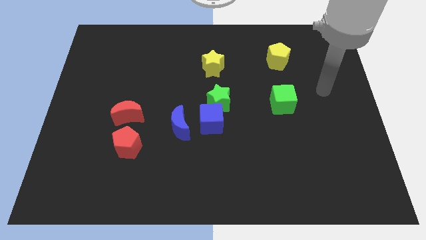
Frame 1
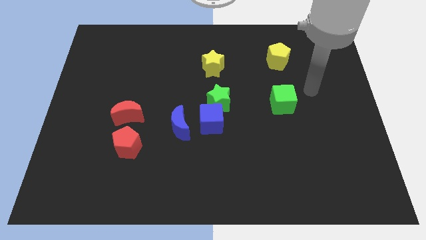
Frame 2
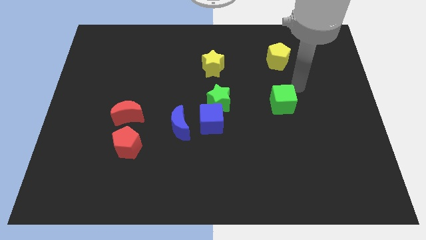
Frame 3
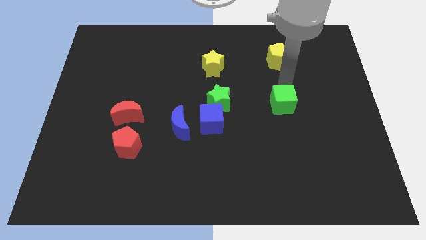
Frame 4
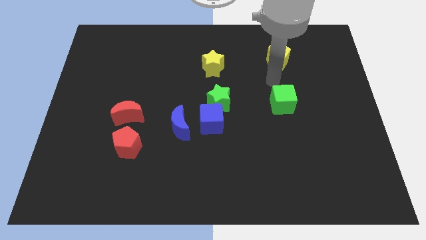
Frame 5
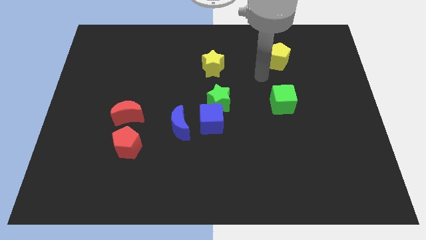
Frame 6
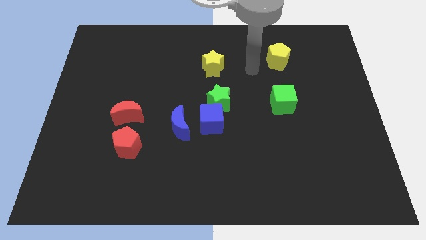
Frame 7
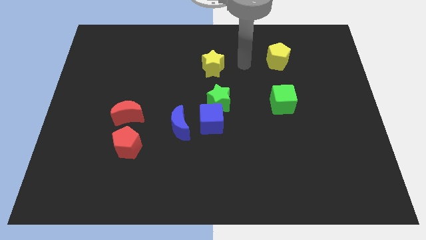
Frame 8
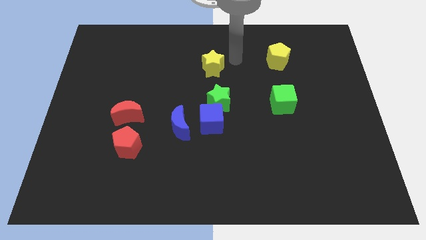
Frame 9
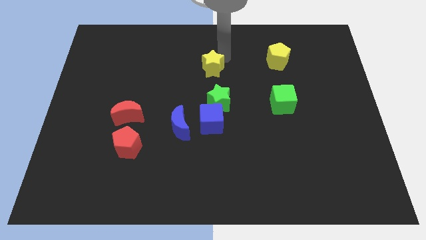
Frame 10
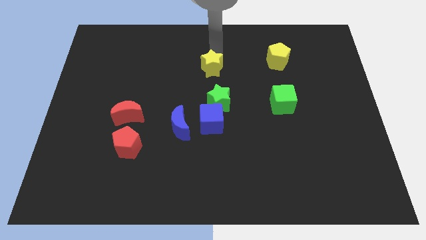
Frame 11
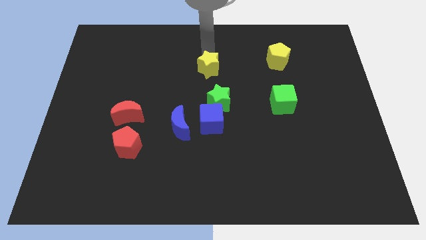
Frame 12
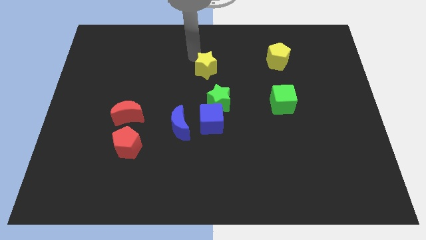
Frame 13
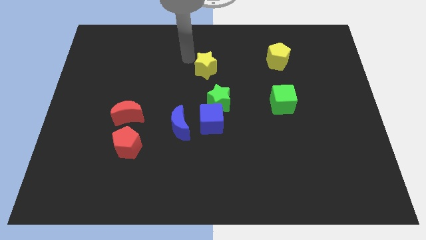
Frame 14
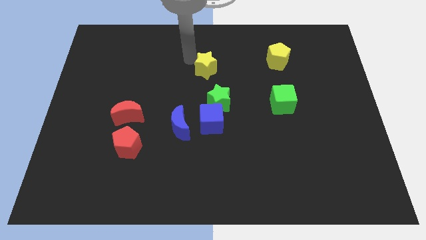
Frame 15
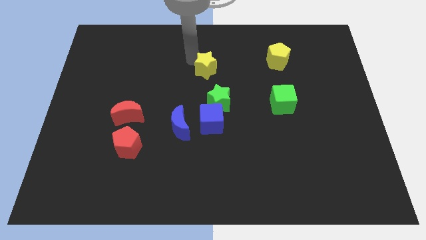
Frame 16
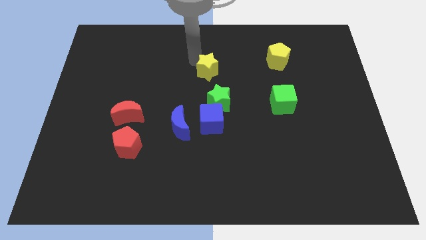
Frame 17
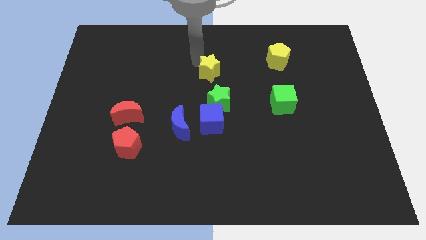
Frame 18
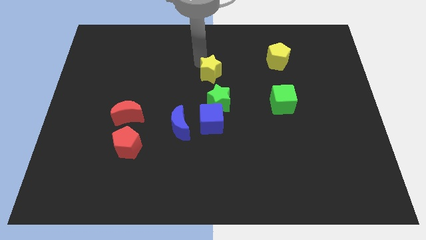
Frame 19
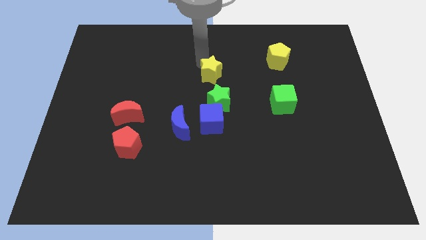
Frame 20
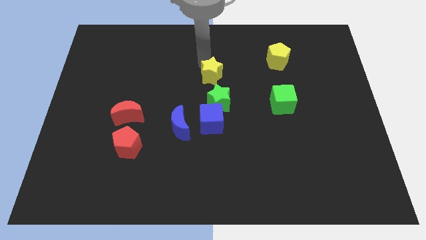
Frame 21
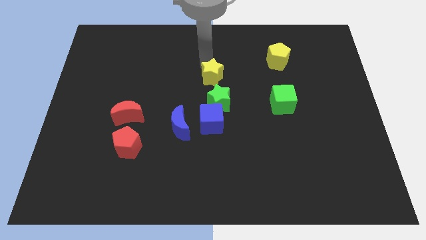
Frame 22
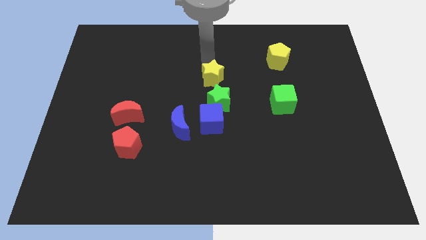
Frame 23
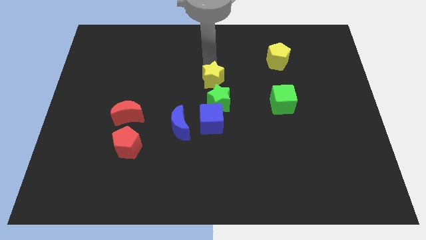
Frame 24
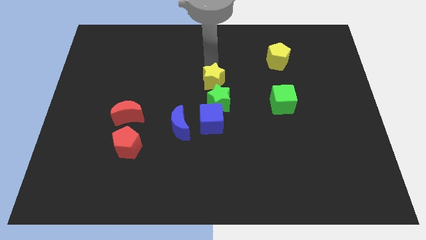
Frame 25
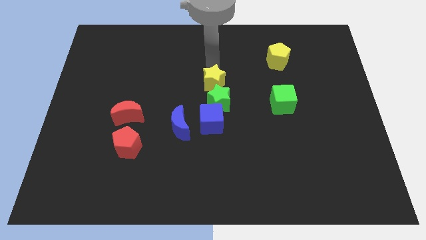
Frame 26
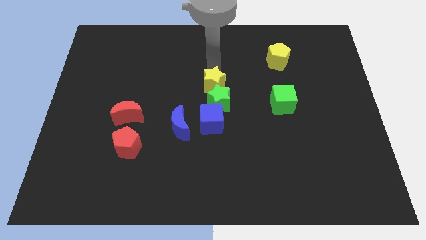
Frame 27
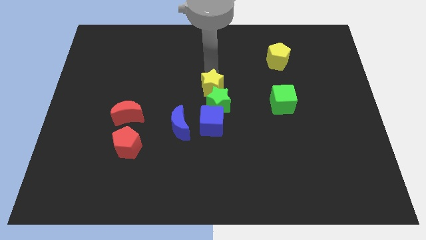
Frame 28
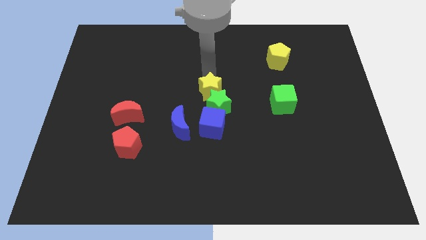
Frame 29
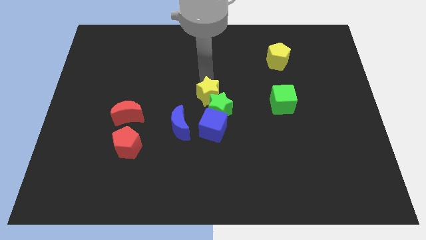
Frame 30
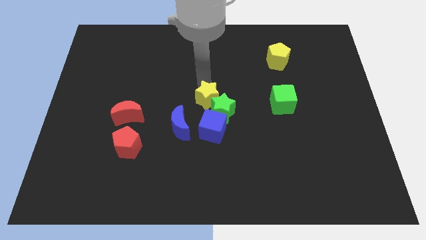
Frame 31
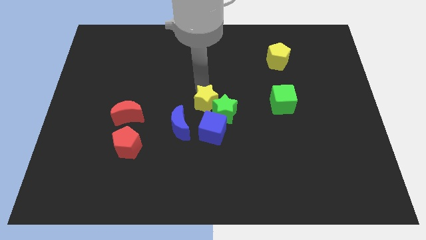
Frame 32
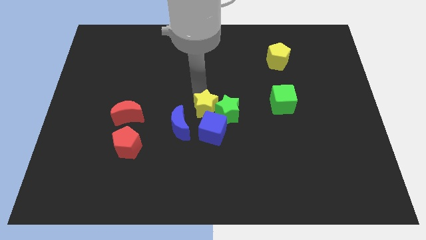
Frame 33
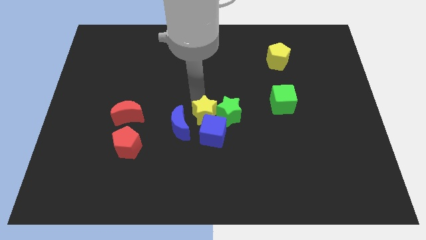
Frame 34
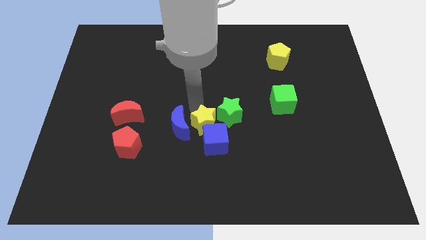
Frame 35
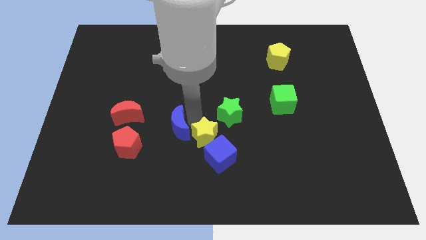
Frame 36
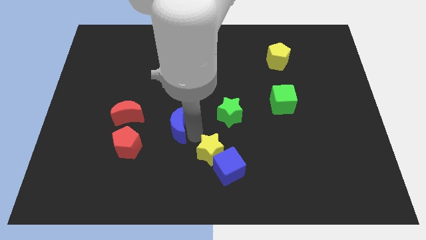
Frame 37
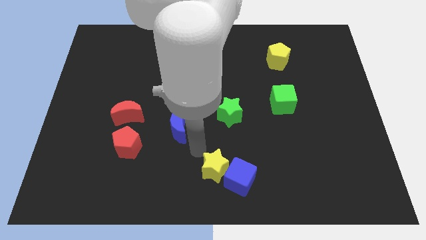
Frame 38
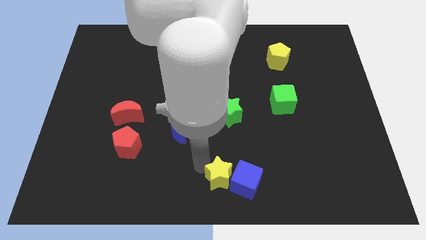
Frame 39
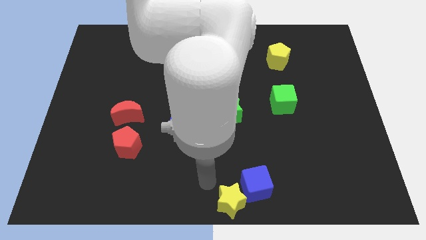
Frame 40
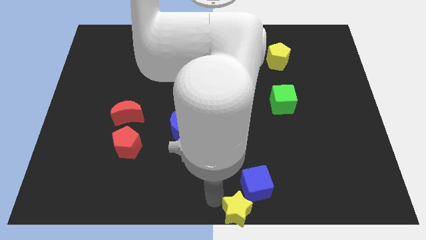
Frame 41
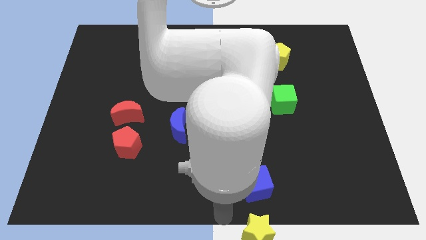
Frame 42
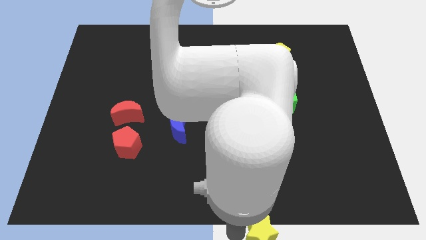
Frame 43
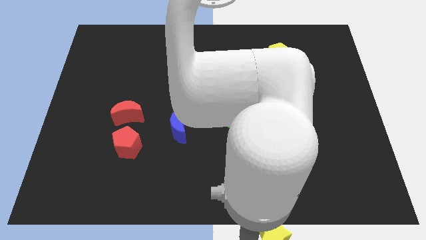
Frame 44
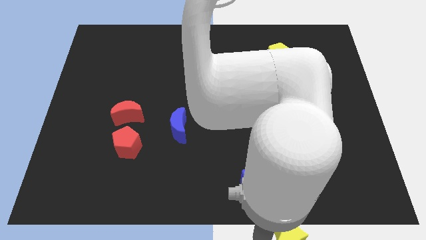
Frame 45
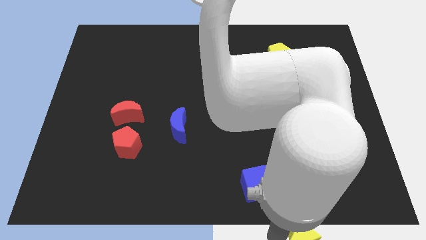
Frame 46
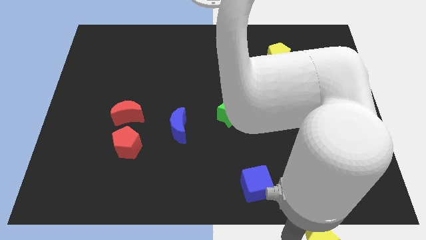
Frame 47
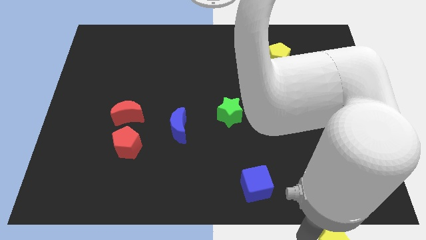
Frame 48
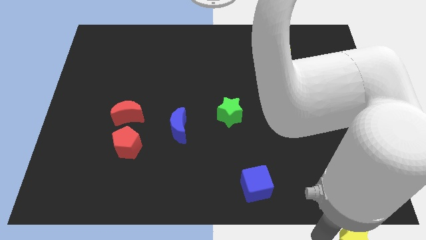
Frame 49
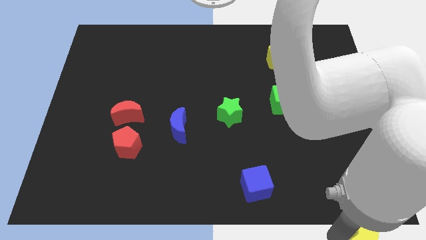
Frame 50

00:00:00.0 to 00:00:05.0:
put the yellow star to the lower right corner

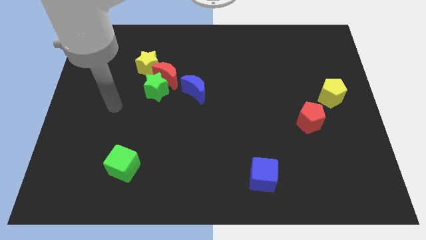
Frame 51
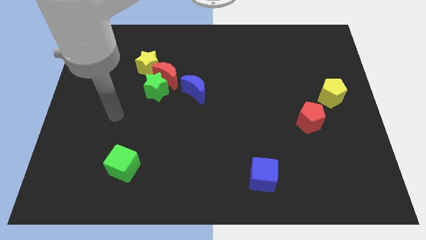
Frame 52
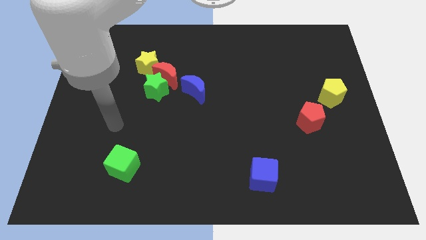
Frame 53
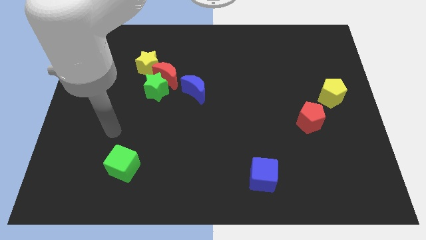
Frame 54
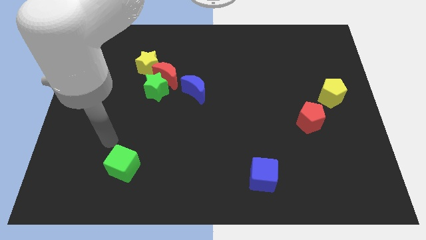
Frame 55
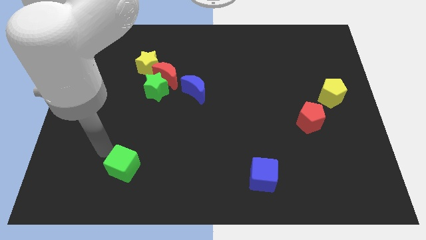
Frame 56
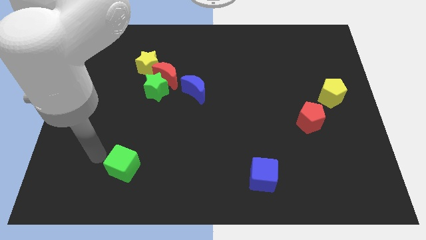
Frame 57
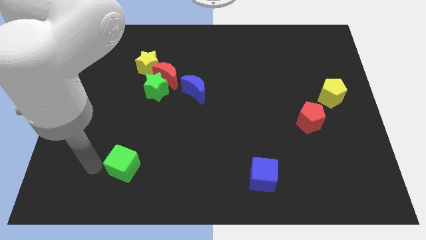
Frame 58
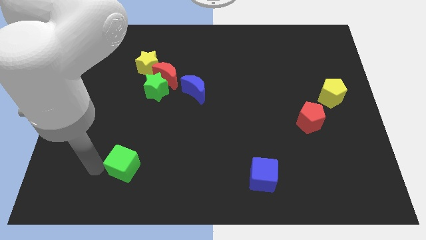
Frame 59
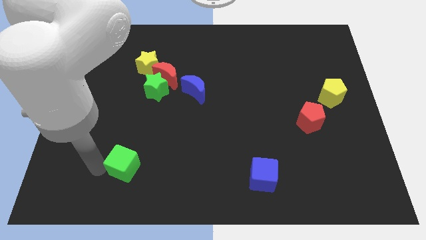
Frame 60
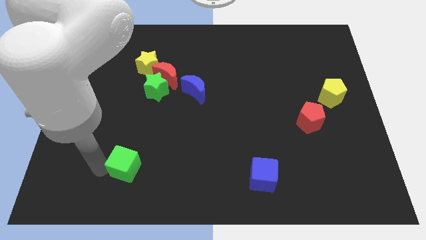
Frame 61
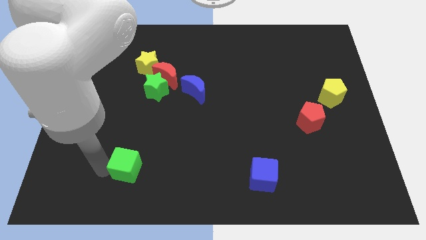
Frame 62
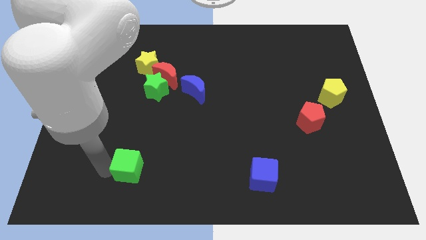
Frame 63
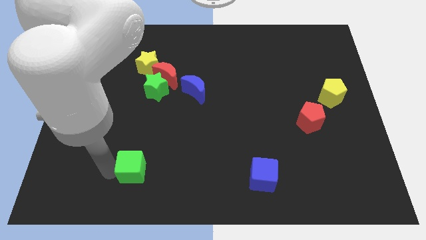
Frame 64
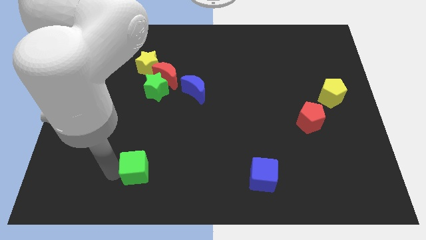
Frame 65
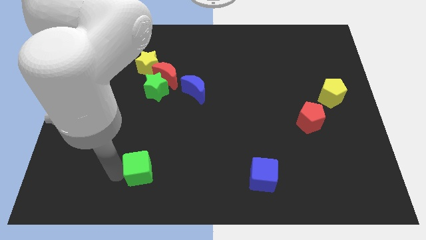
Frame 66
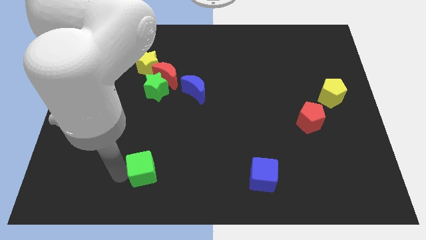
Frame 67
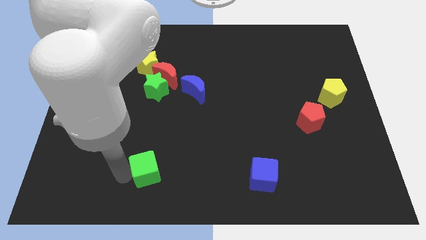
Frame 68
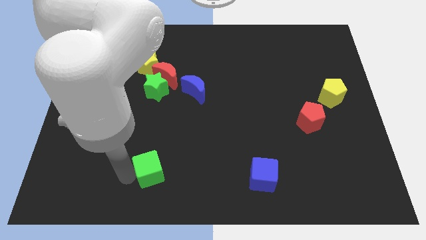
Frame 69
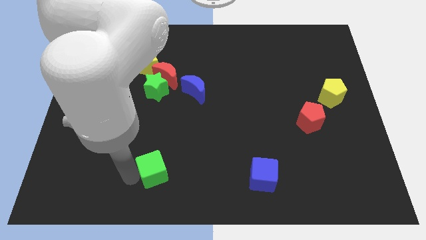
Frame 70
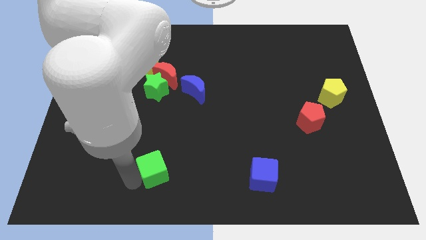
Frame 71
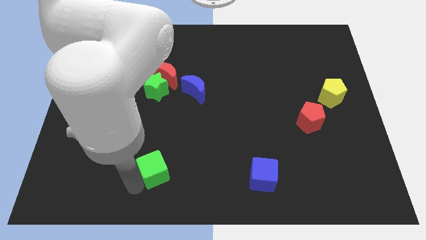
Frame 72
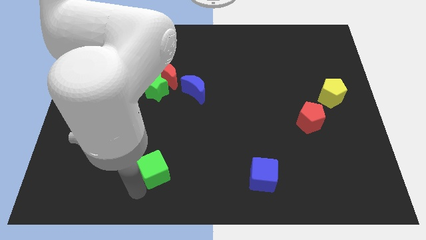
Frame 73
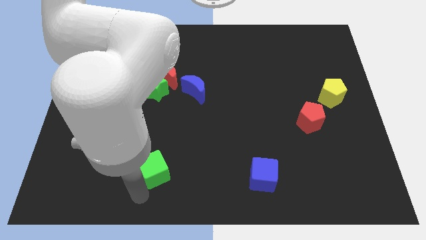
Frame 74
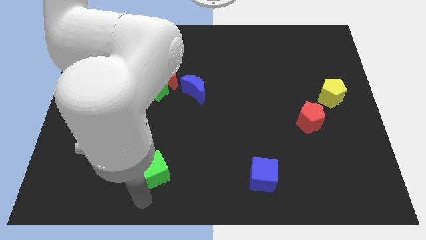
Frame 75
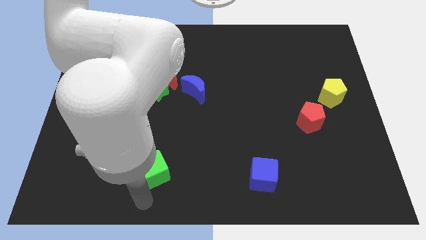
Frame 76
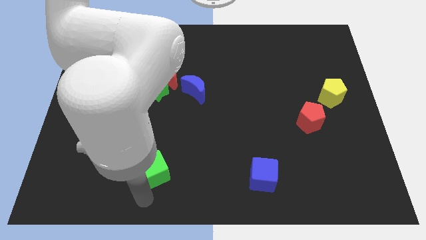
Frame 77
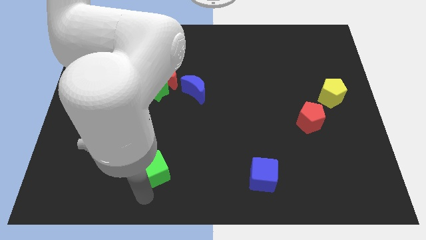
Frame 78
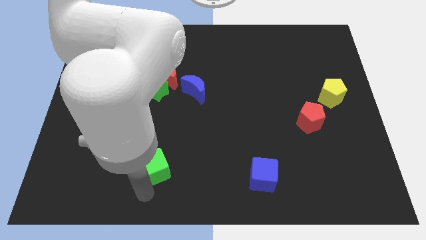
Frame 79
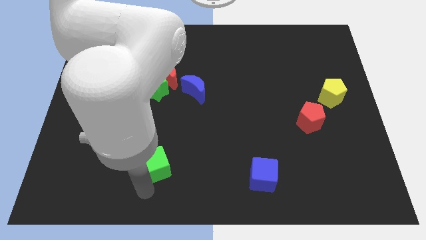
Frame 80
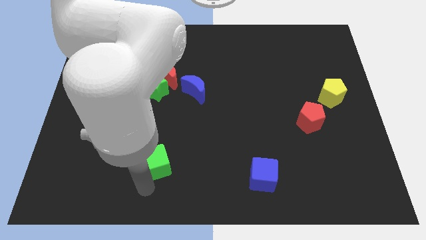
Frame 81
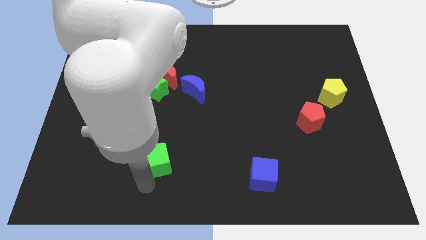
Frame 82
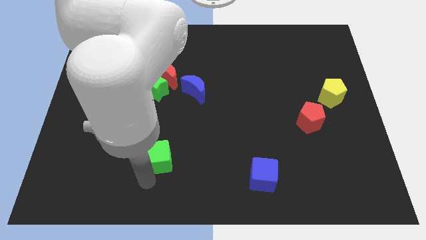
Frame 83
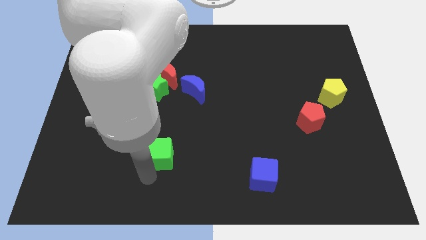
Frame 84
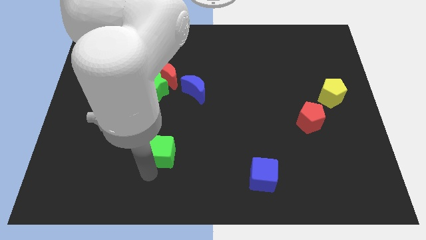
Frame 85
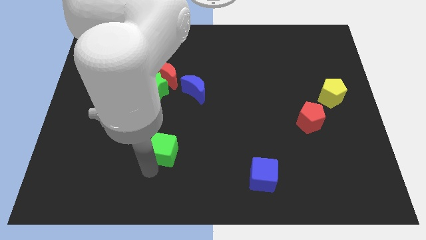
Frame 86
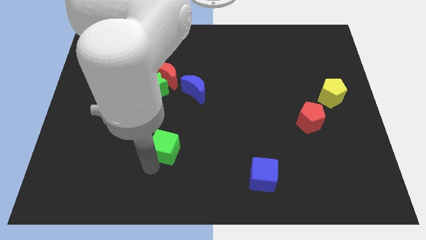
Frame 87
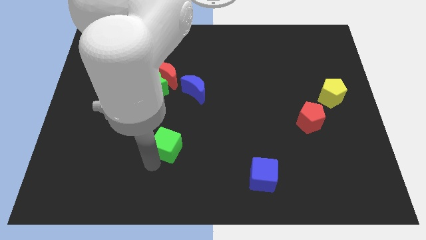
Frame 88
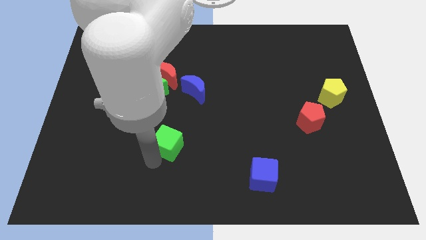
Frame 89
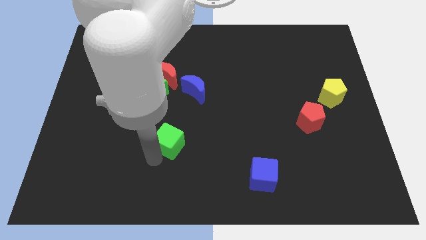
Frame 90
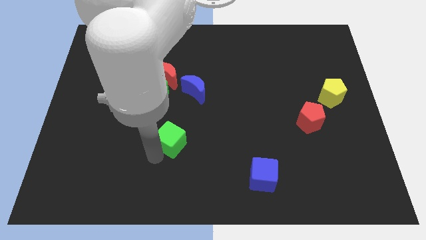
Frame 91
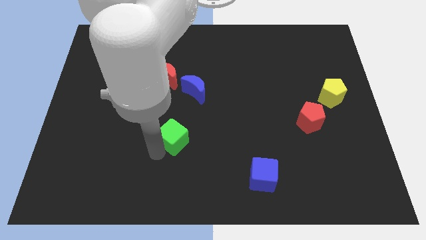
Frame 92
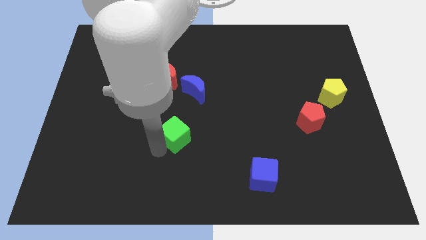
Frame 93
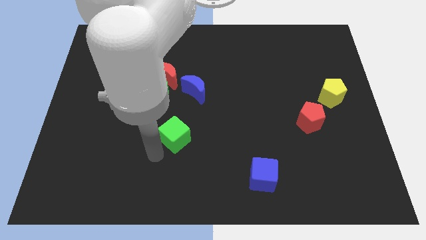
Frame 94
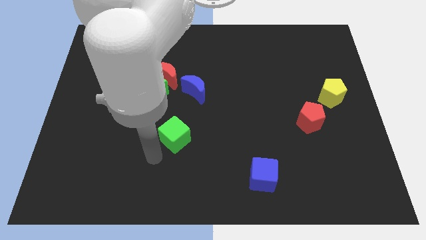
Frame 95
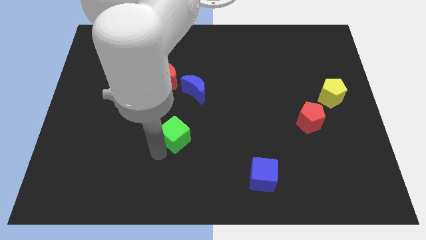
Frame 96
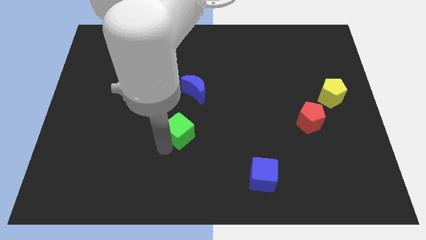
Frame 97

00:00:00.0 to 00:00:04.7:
put the green cube to the middle of the board
